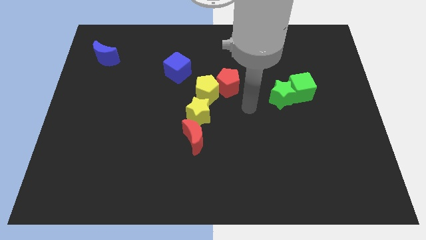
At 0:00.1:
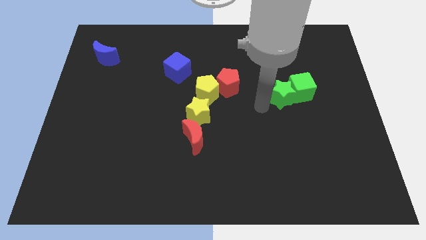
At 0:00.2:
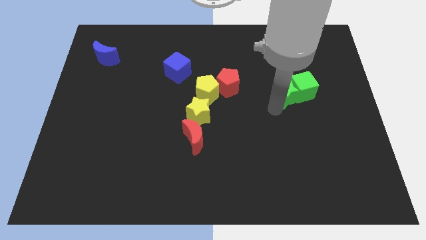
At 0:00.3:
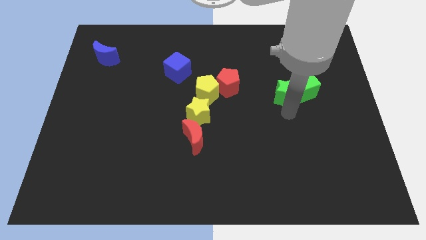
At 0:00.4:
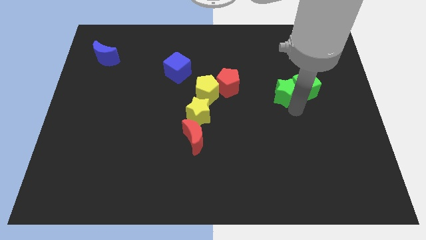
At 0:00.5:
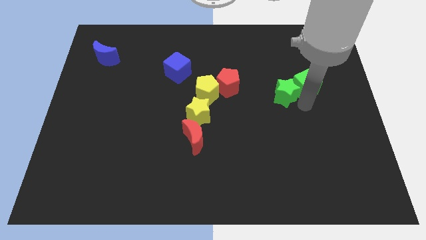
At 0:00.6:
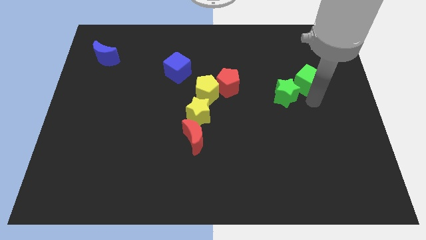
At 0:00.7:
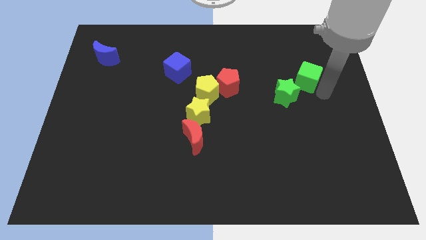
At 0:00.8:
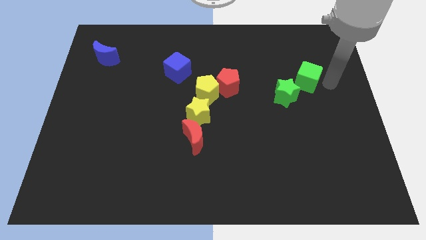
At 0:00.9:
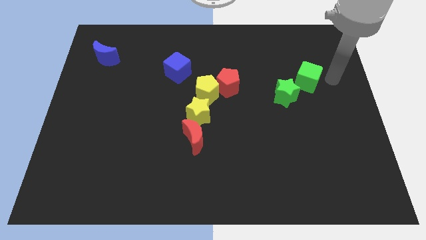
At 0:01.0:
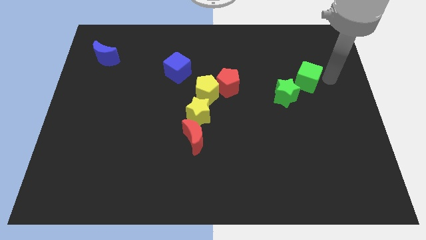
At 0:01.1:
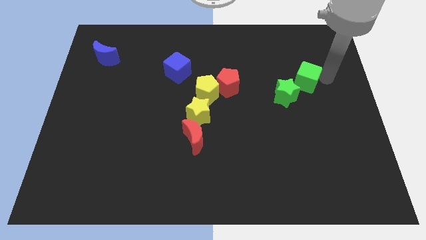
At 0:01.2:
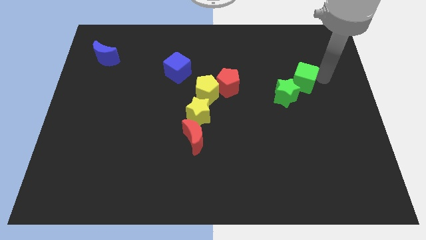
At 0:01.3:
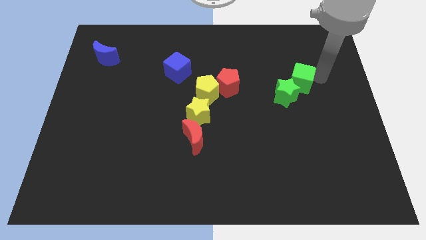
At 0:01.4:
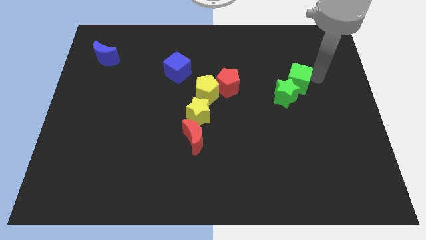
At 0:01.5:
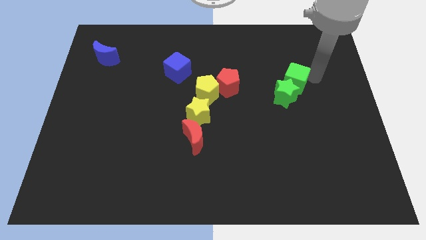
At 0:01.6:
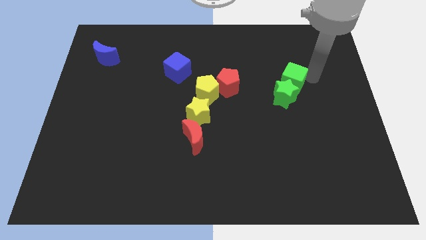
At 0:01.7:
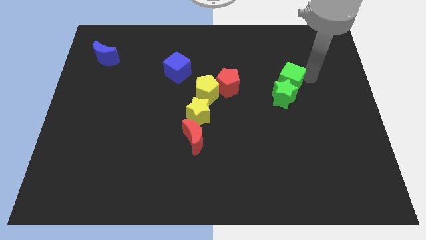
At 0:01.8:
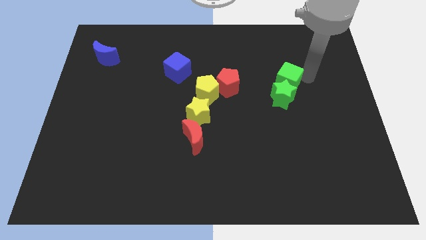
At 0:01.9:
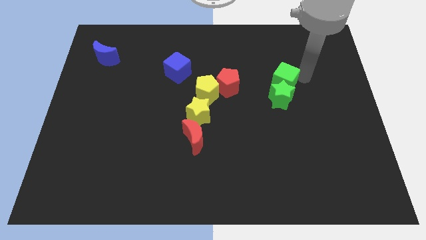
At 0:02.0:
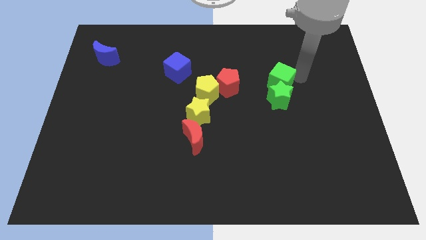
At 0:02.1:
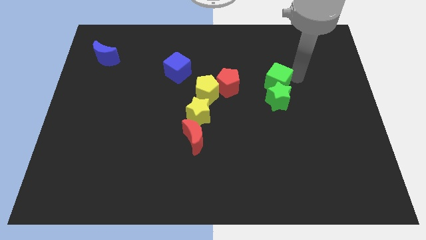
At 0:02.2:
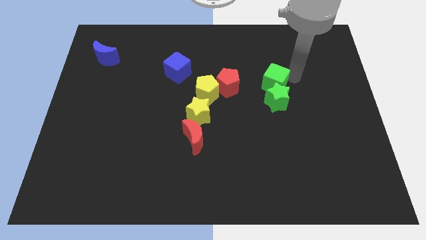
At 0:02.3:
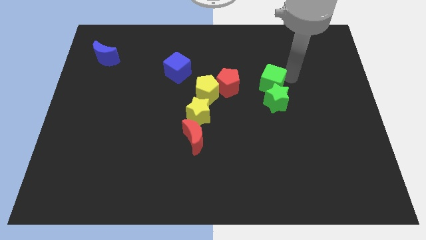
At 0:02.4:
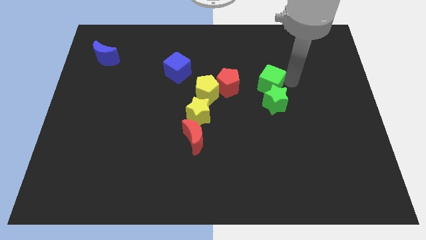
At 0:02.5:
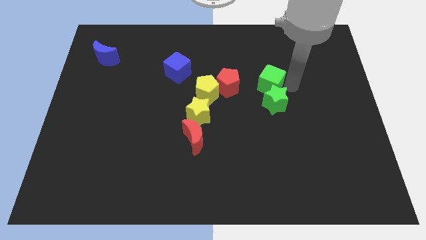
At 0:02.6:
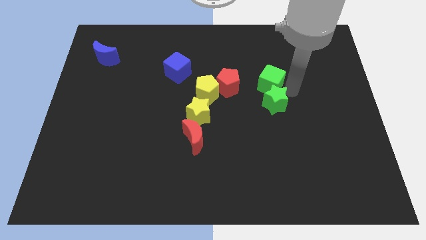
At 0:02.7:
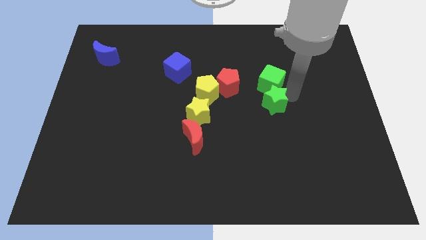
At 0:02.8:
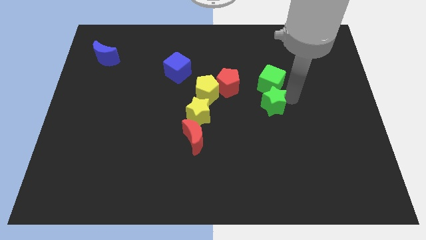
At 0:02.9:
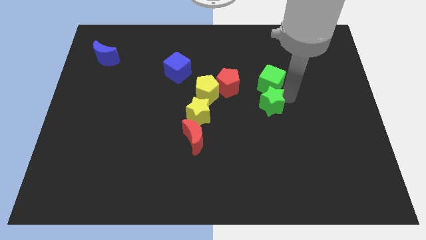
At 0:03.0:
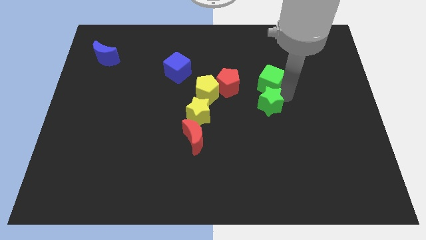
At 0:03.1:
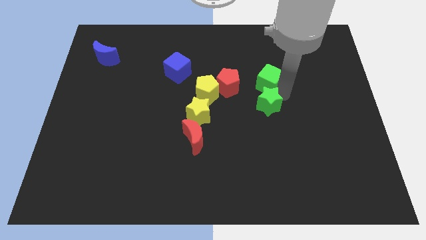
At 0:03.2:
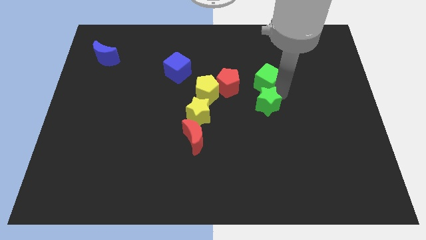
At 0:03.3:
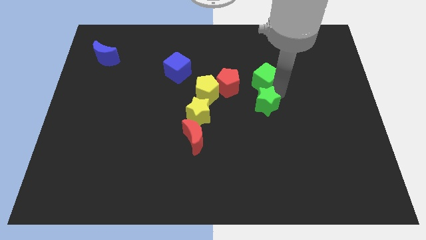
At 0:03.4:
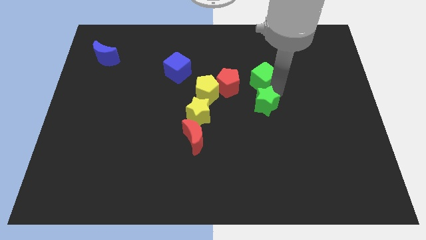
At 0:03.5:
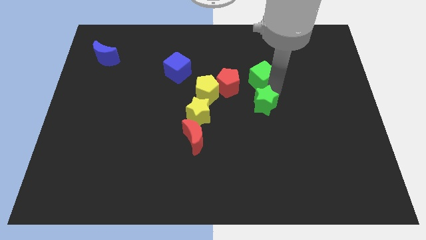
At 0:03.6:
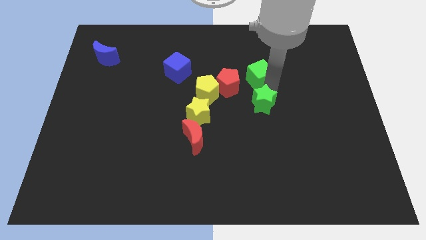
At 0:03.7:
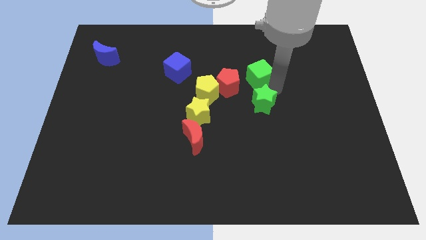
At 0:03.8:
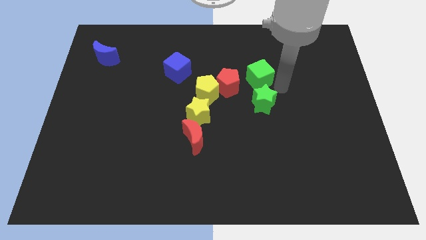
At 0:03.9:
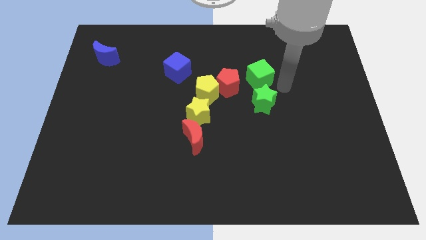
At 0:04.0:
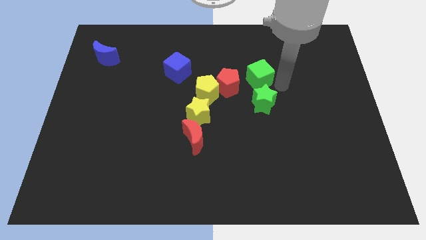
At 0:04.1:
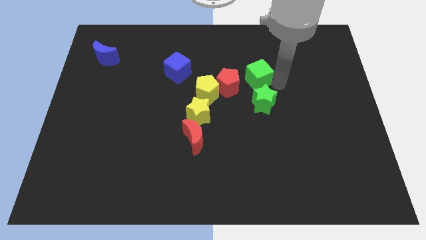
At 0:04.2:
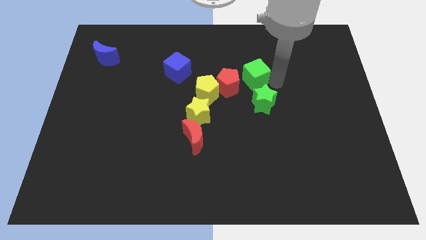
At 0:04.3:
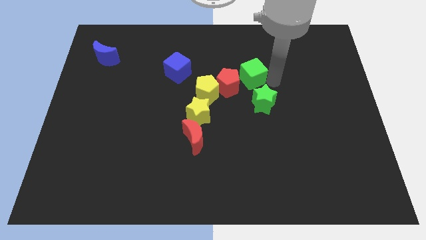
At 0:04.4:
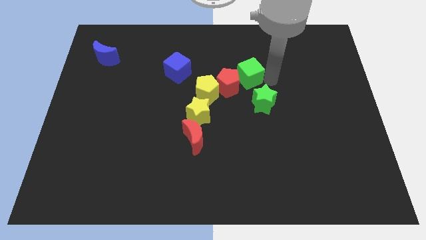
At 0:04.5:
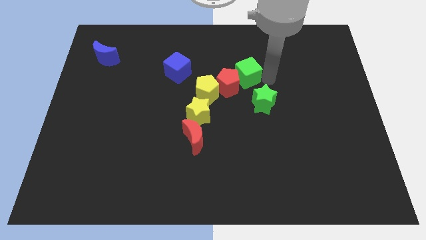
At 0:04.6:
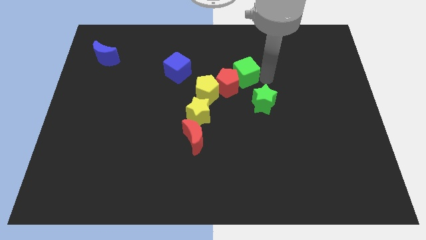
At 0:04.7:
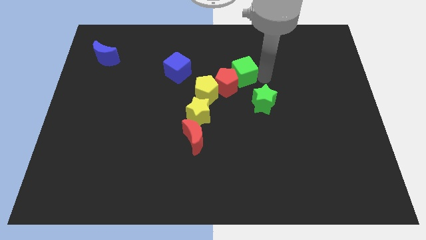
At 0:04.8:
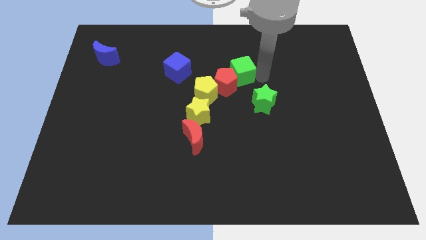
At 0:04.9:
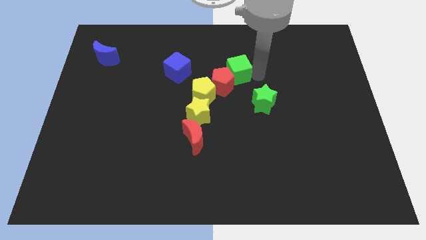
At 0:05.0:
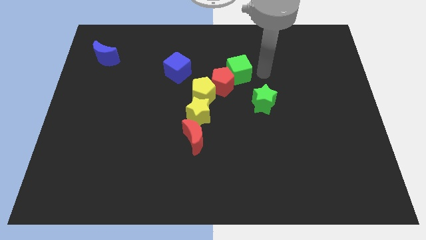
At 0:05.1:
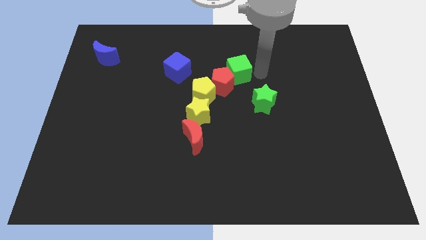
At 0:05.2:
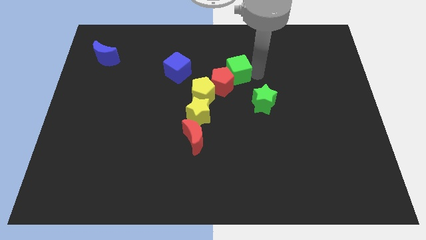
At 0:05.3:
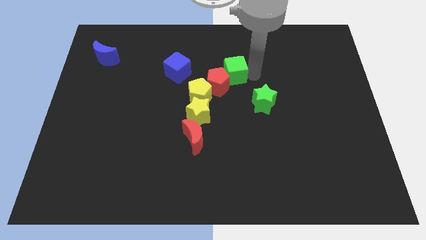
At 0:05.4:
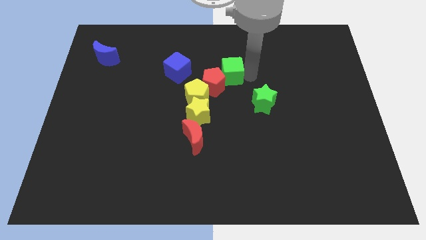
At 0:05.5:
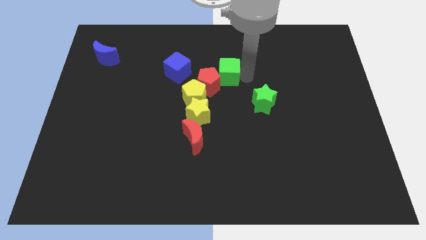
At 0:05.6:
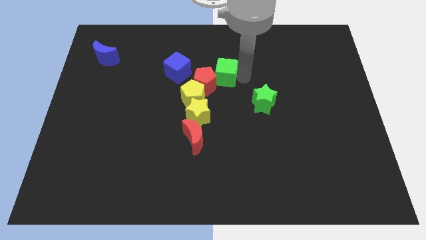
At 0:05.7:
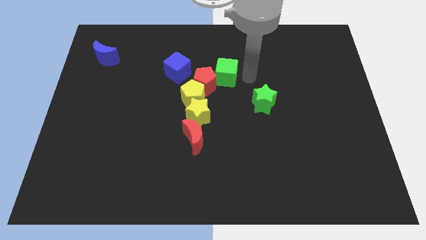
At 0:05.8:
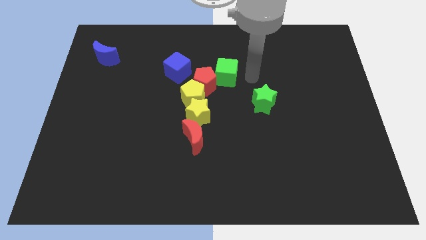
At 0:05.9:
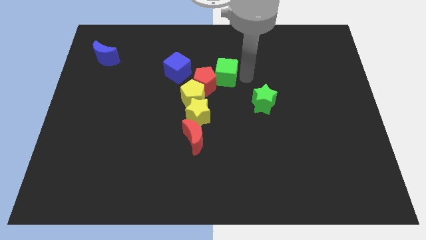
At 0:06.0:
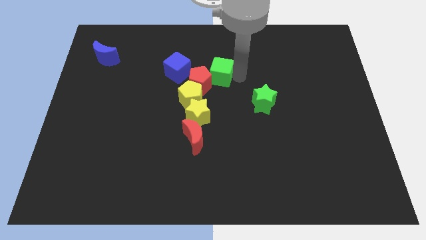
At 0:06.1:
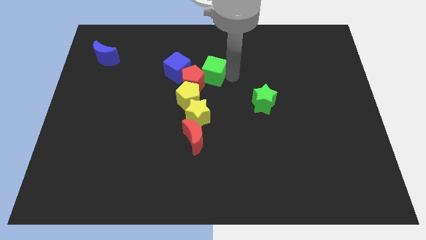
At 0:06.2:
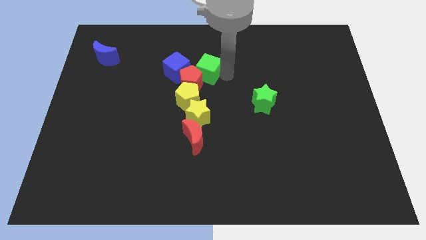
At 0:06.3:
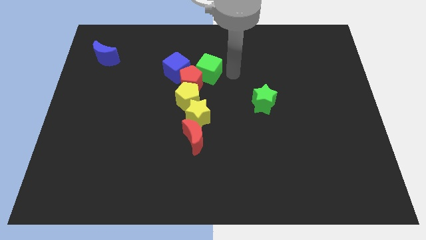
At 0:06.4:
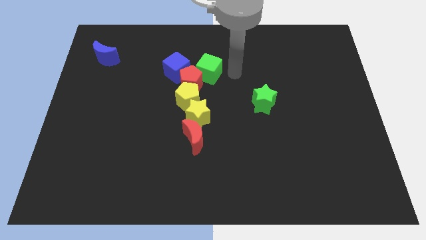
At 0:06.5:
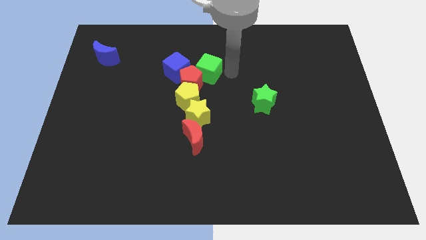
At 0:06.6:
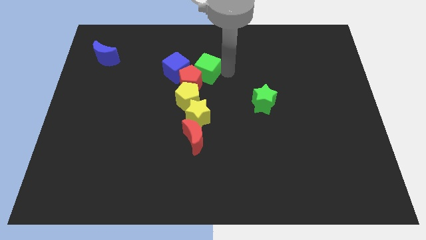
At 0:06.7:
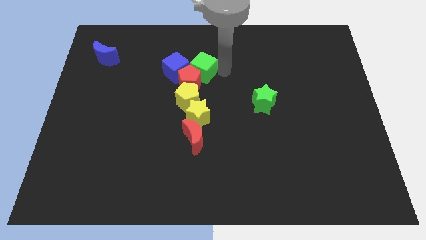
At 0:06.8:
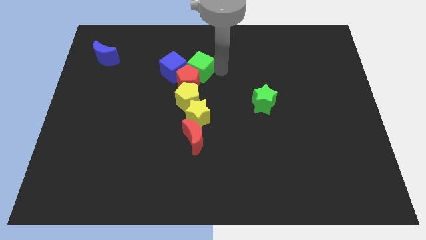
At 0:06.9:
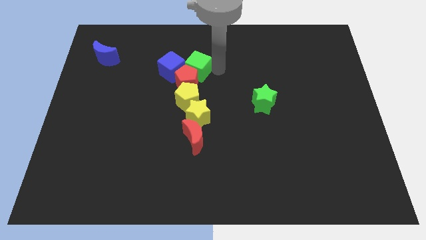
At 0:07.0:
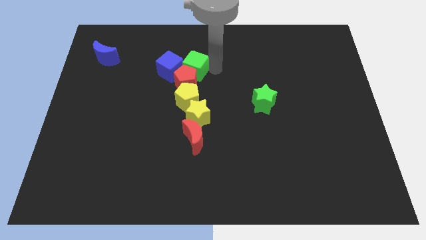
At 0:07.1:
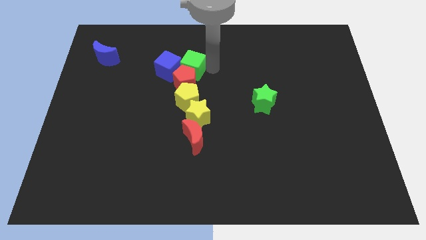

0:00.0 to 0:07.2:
slide the green cube close to the blue cube
